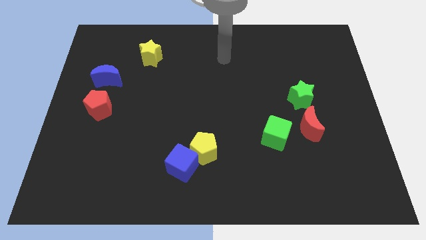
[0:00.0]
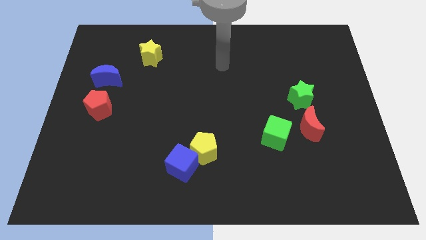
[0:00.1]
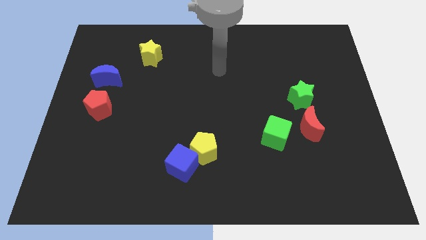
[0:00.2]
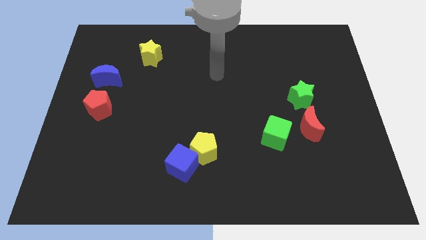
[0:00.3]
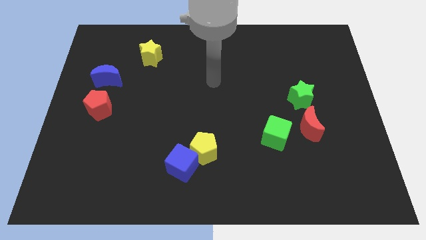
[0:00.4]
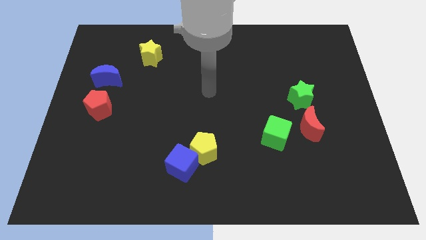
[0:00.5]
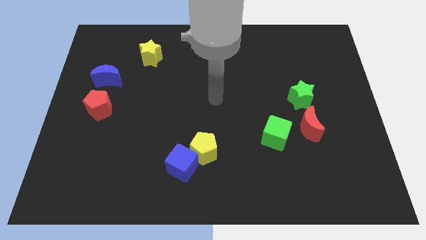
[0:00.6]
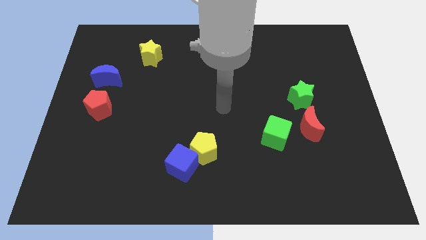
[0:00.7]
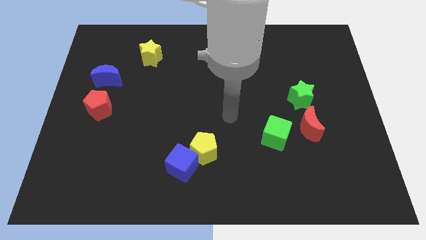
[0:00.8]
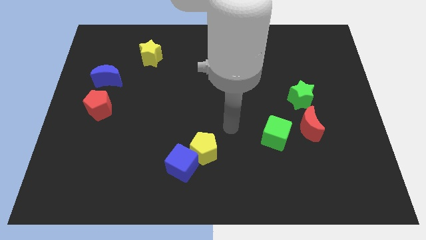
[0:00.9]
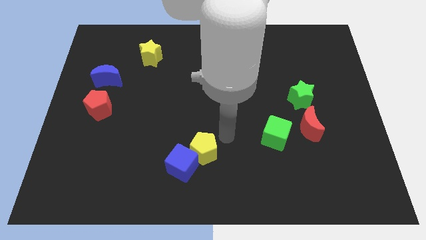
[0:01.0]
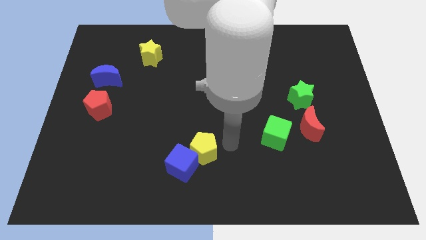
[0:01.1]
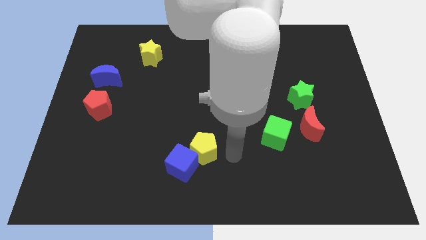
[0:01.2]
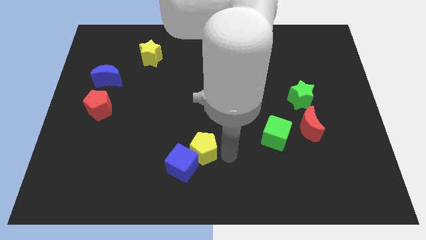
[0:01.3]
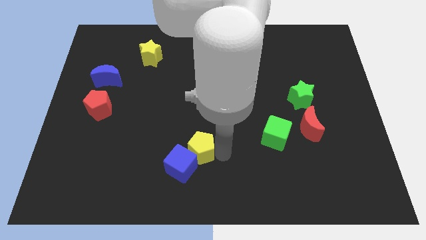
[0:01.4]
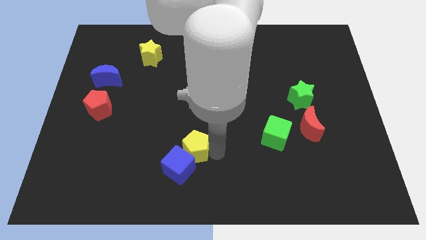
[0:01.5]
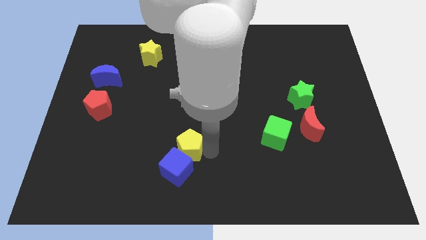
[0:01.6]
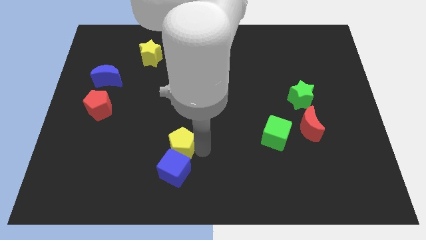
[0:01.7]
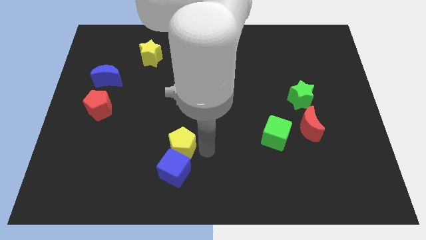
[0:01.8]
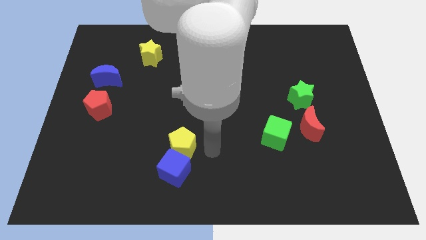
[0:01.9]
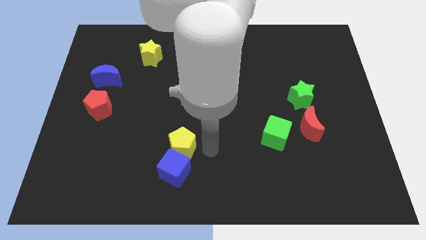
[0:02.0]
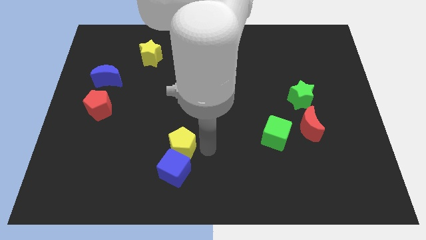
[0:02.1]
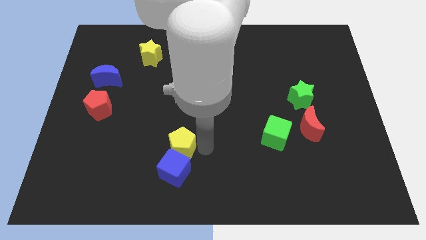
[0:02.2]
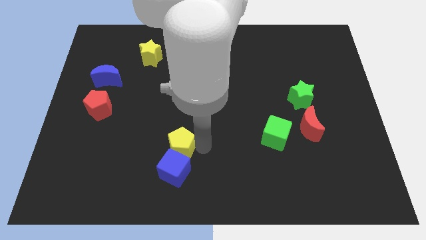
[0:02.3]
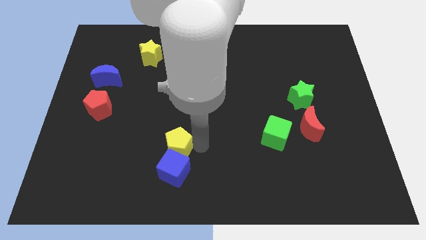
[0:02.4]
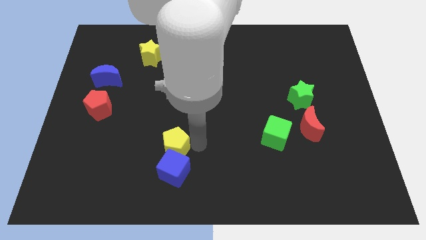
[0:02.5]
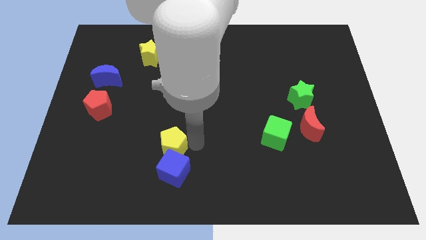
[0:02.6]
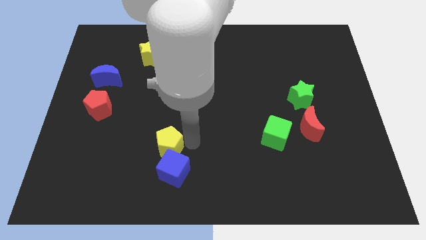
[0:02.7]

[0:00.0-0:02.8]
move the yellow pentagon slightly left

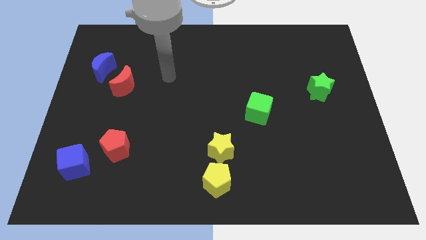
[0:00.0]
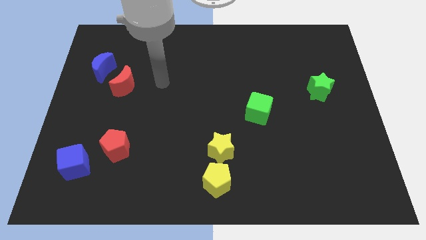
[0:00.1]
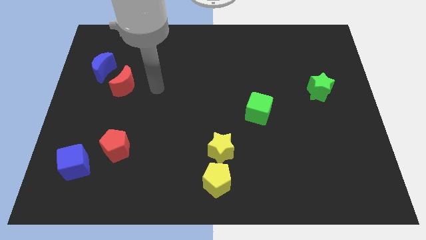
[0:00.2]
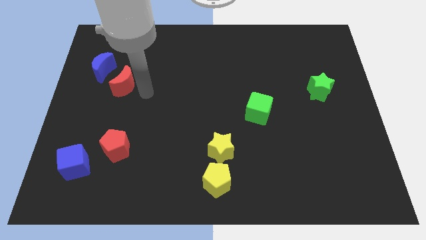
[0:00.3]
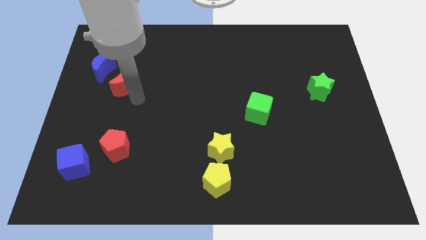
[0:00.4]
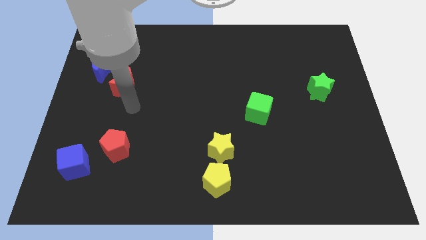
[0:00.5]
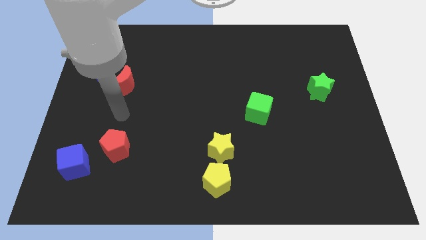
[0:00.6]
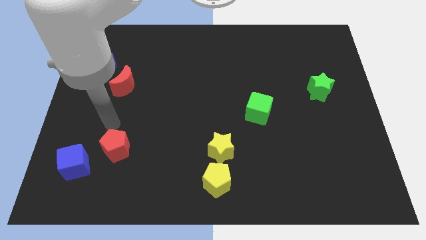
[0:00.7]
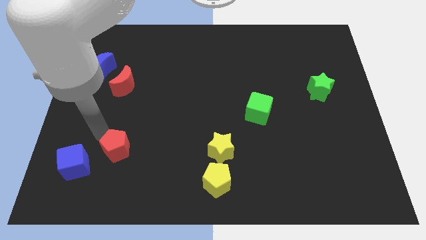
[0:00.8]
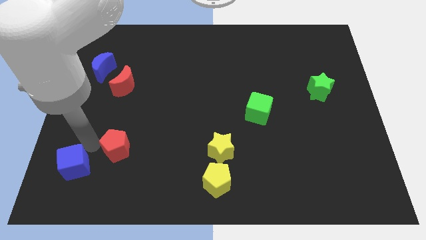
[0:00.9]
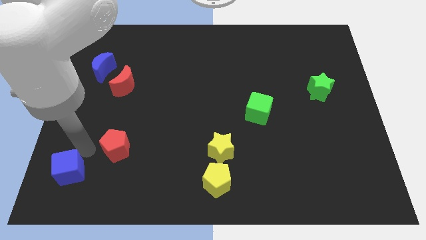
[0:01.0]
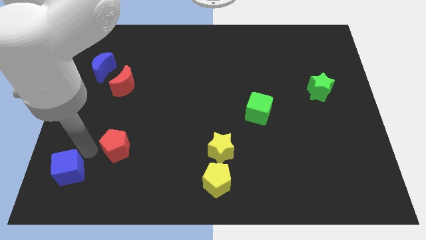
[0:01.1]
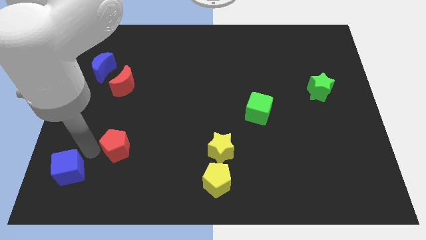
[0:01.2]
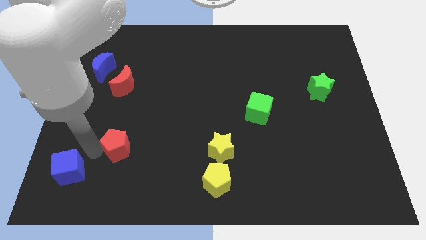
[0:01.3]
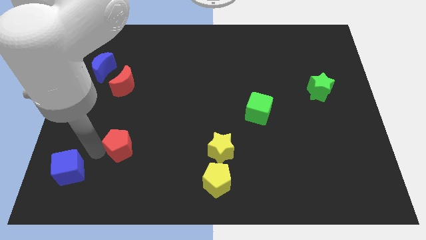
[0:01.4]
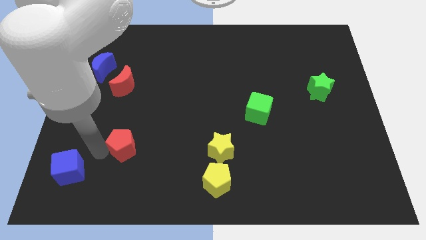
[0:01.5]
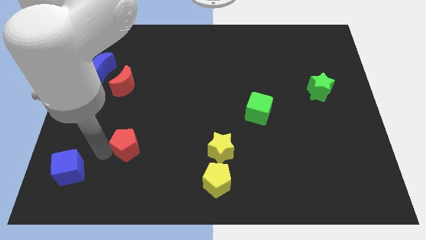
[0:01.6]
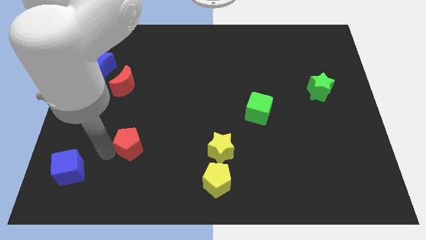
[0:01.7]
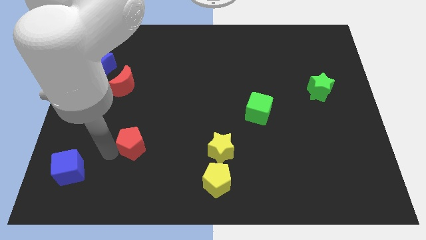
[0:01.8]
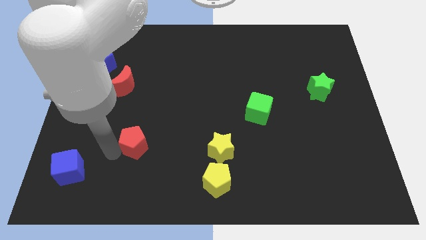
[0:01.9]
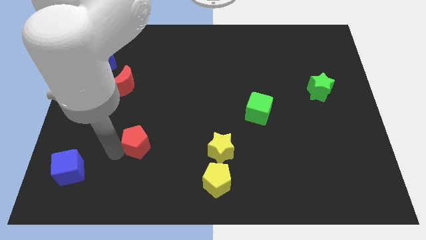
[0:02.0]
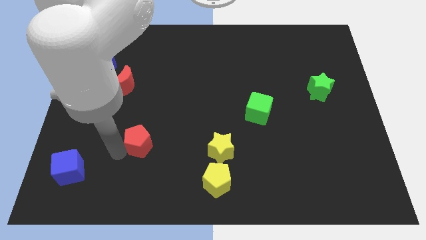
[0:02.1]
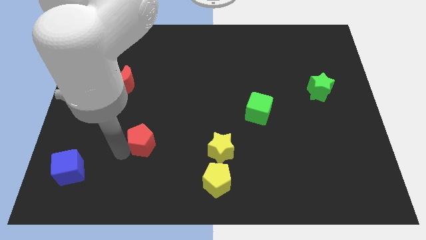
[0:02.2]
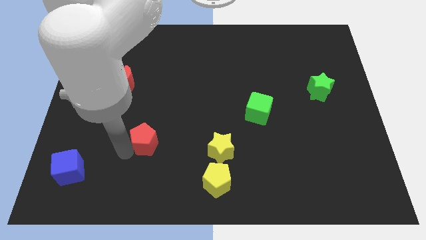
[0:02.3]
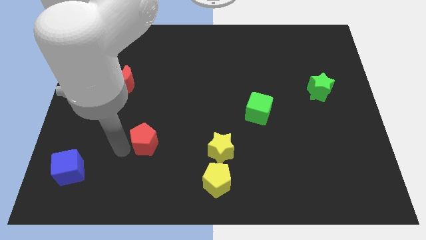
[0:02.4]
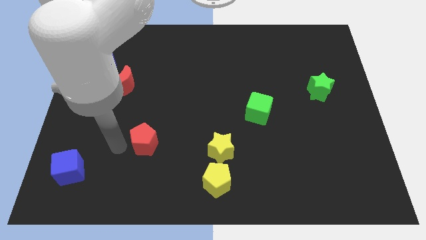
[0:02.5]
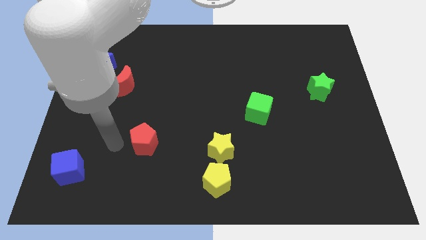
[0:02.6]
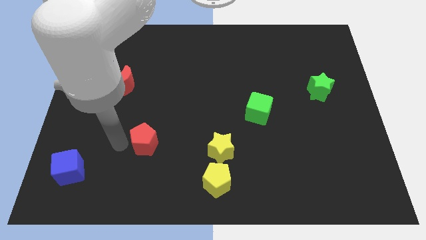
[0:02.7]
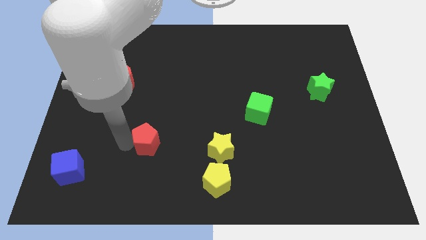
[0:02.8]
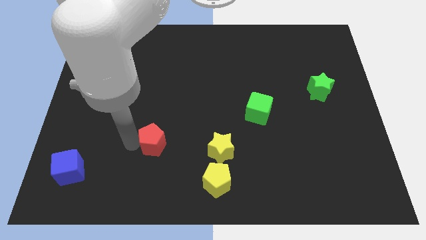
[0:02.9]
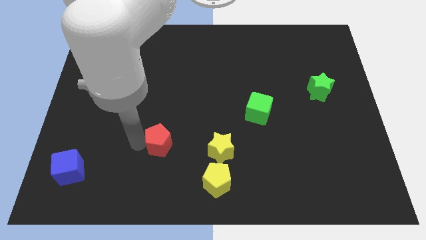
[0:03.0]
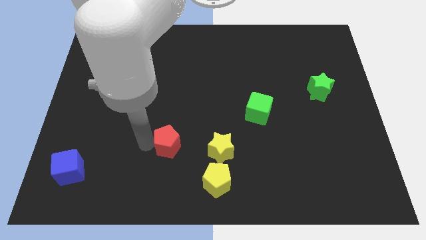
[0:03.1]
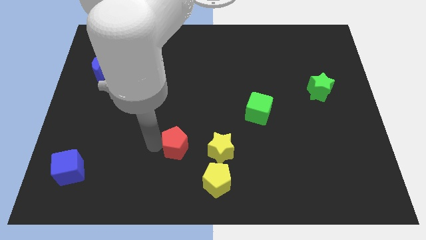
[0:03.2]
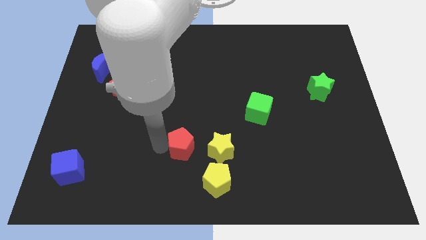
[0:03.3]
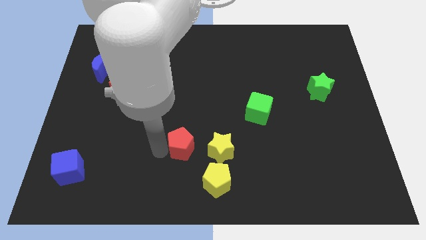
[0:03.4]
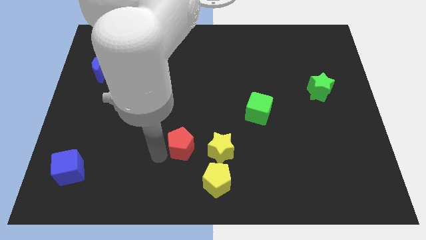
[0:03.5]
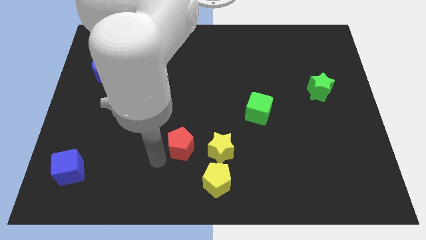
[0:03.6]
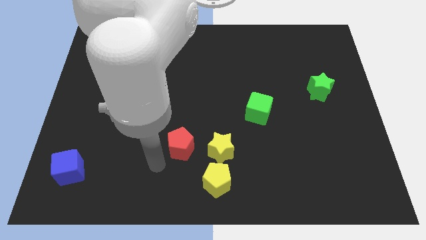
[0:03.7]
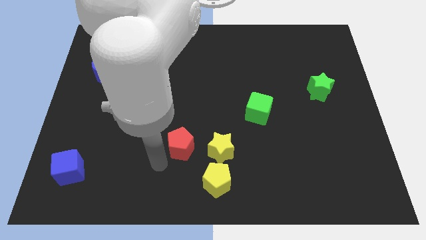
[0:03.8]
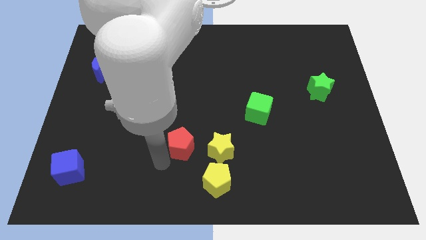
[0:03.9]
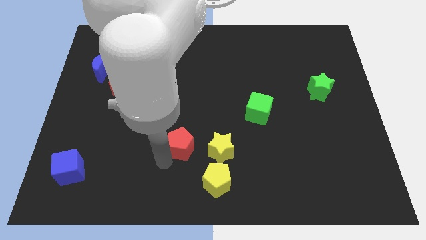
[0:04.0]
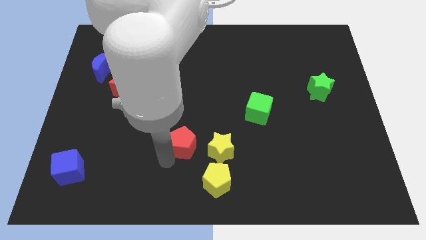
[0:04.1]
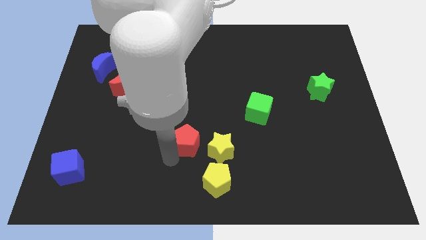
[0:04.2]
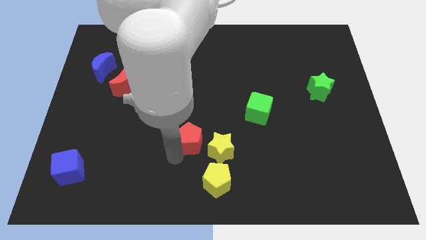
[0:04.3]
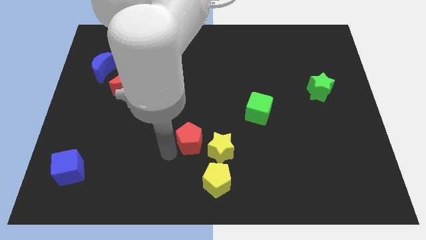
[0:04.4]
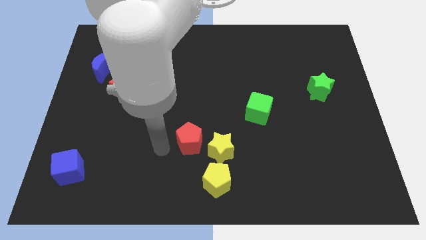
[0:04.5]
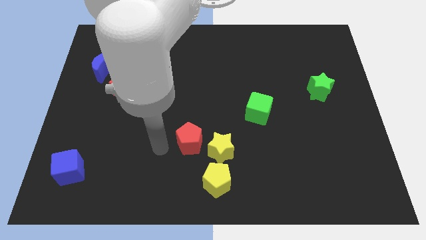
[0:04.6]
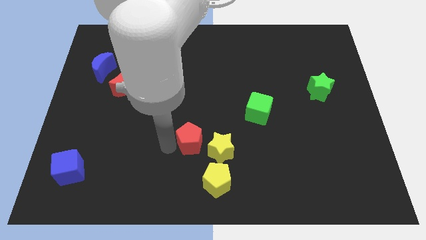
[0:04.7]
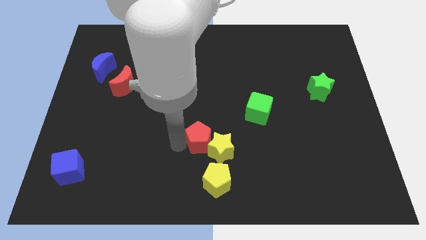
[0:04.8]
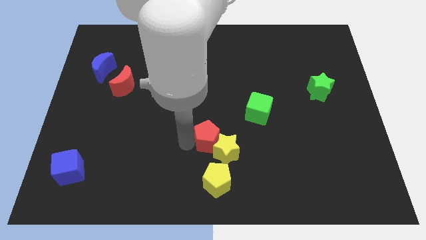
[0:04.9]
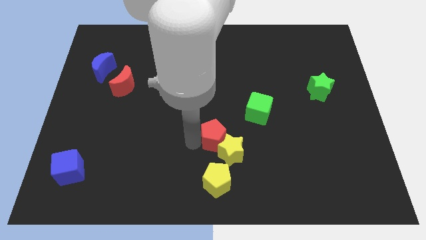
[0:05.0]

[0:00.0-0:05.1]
slide the red pentagon right
